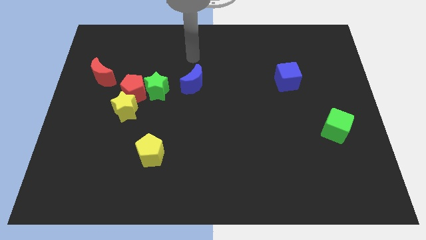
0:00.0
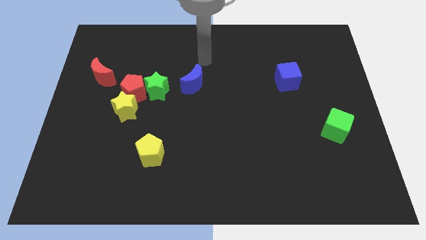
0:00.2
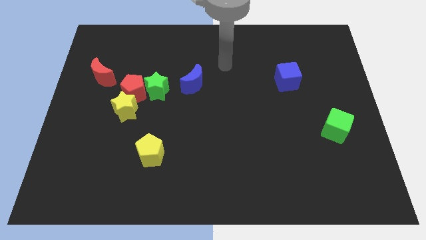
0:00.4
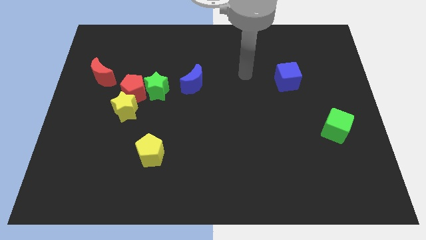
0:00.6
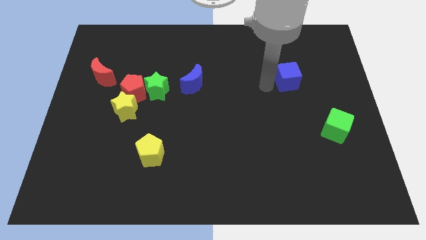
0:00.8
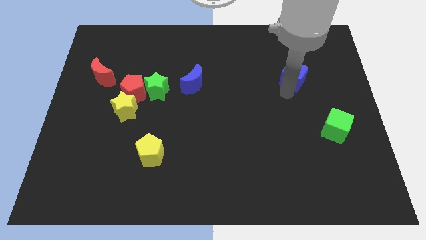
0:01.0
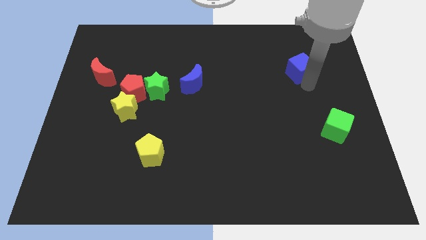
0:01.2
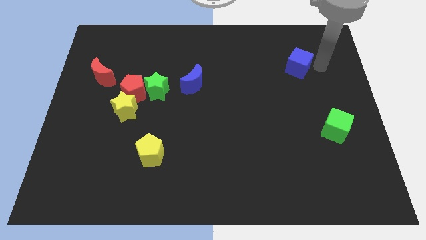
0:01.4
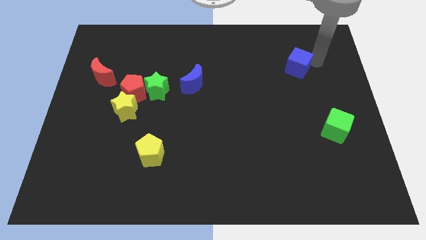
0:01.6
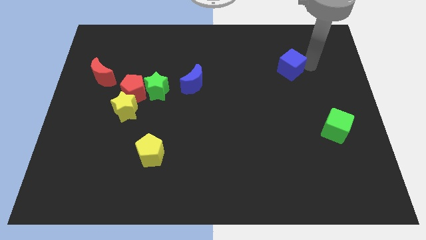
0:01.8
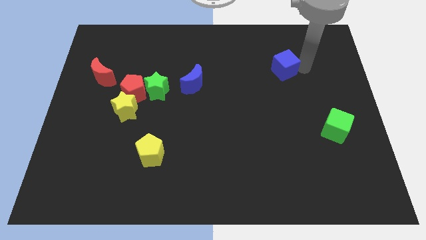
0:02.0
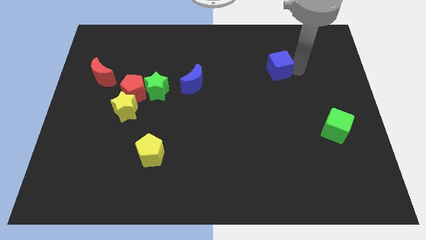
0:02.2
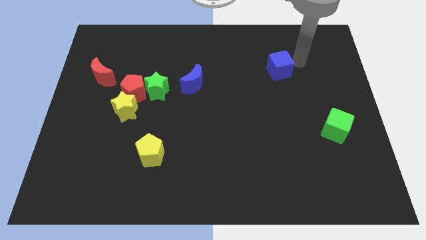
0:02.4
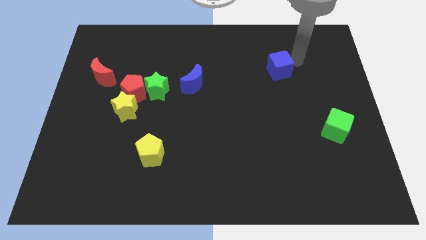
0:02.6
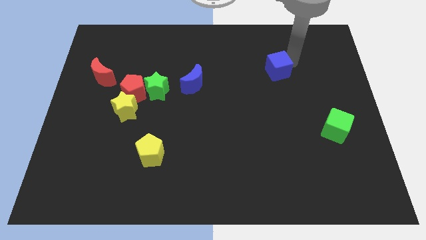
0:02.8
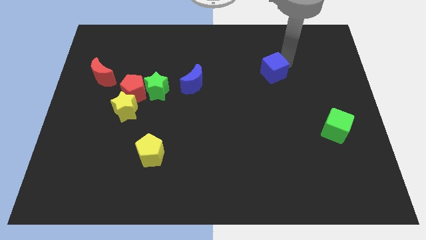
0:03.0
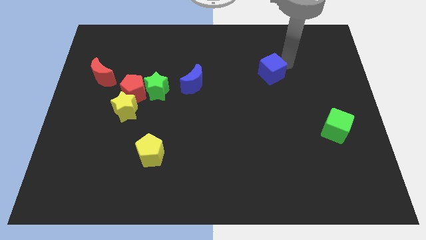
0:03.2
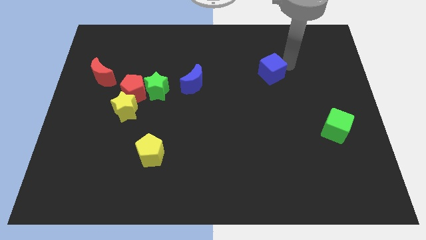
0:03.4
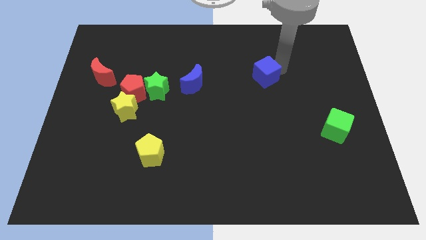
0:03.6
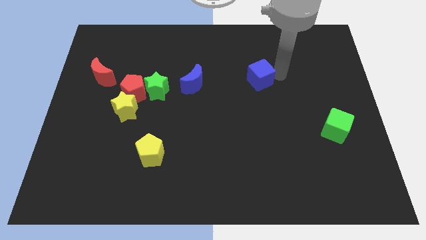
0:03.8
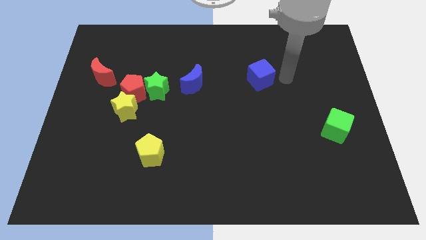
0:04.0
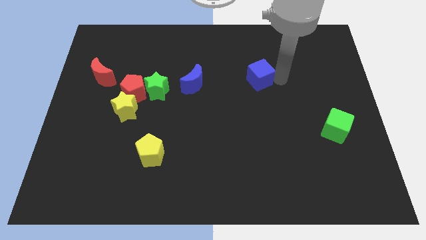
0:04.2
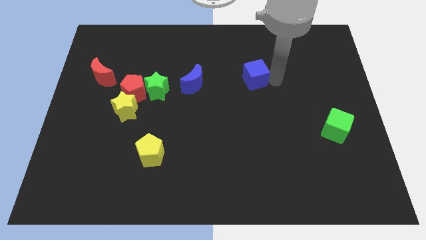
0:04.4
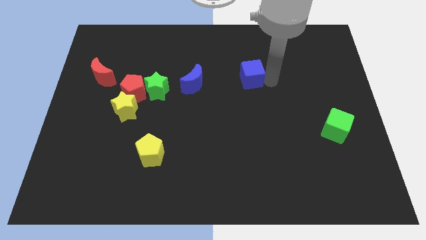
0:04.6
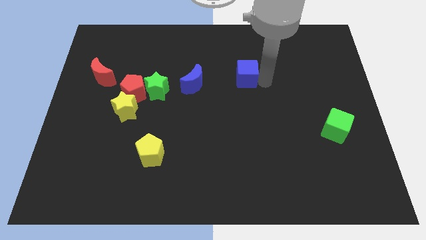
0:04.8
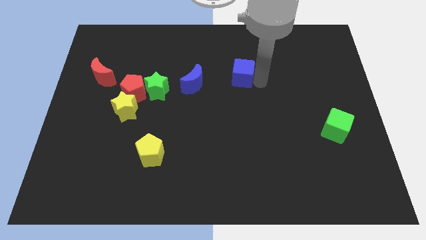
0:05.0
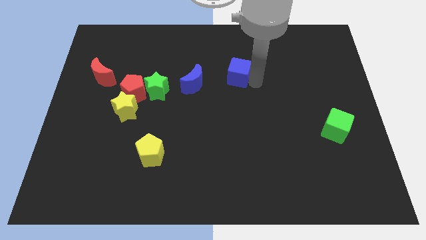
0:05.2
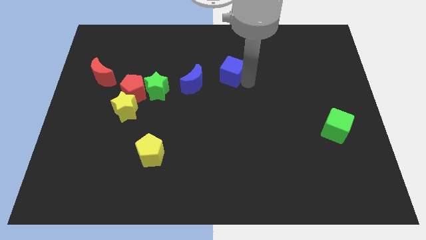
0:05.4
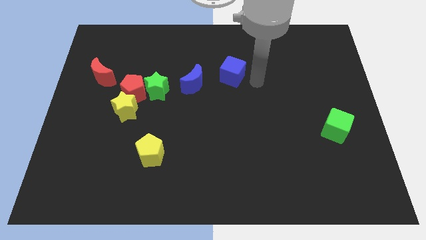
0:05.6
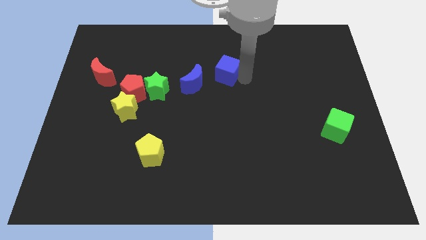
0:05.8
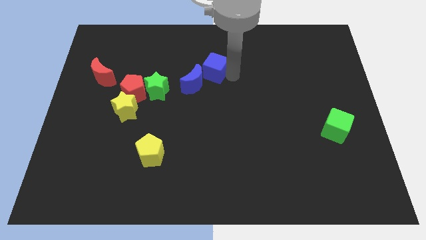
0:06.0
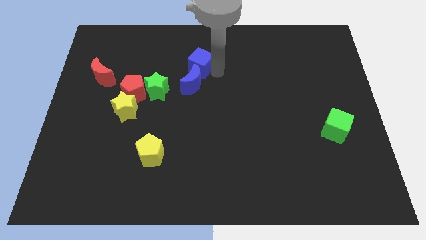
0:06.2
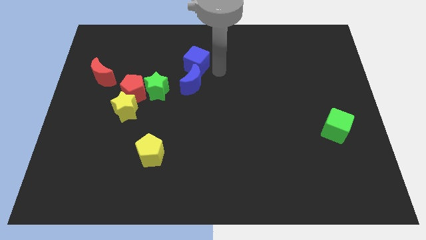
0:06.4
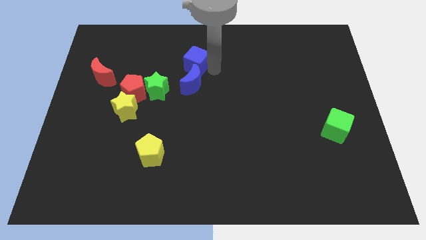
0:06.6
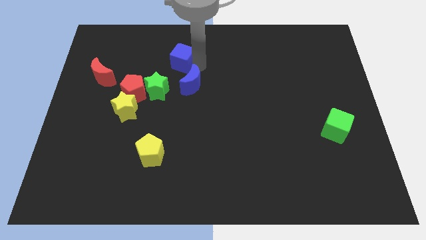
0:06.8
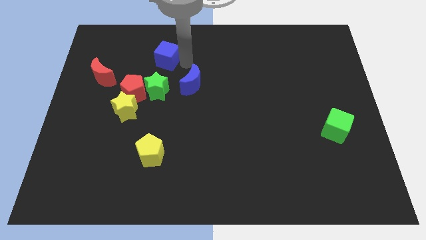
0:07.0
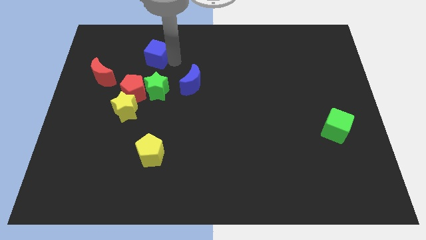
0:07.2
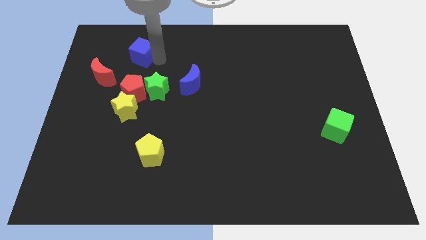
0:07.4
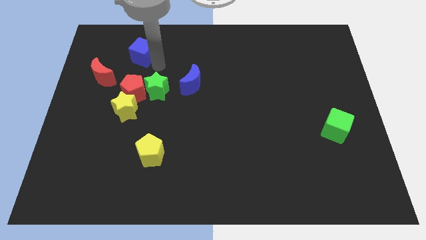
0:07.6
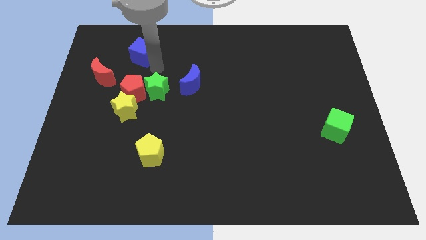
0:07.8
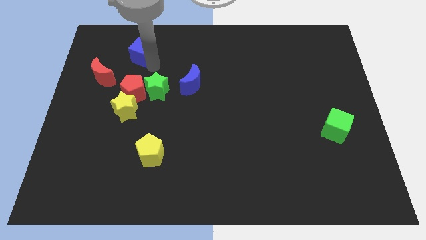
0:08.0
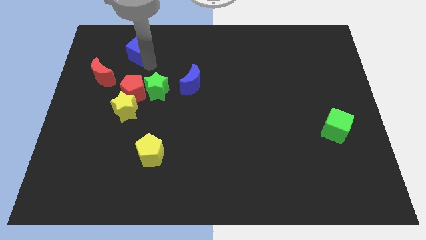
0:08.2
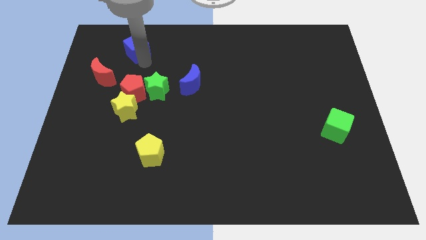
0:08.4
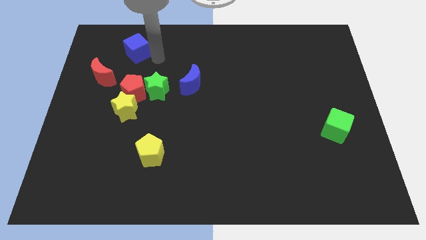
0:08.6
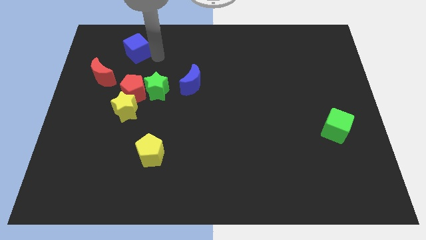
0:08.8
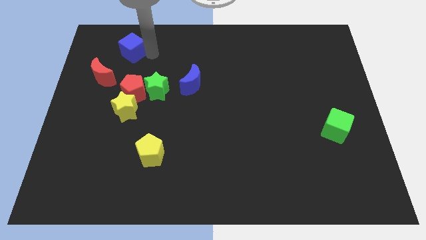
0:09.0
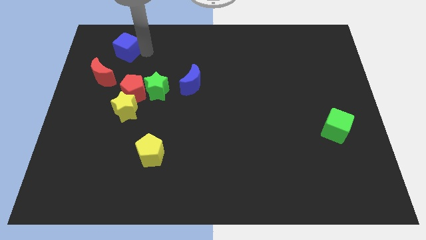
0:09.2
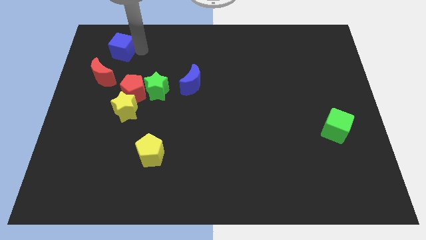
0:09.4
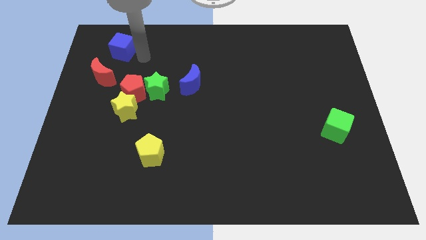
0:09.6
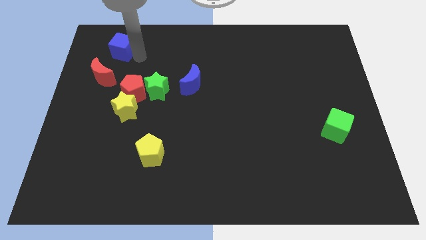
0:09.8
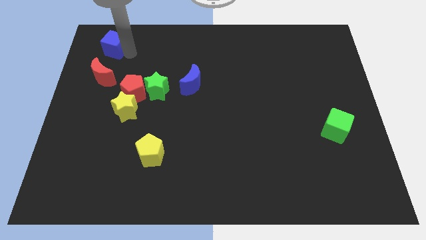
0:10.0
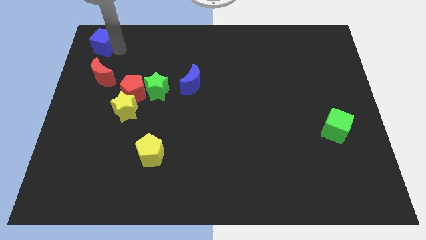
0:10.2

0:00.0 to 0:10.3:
push the blue cube to the top left

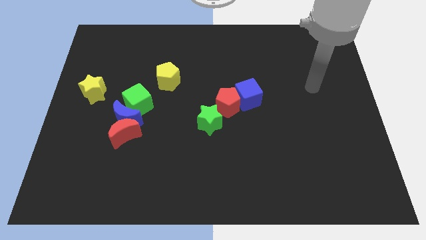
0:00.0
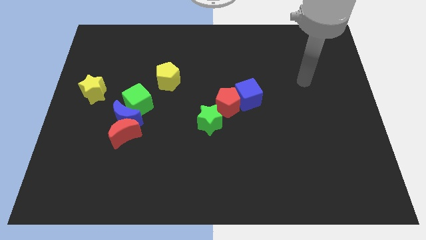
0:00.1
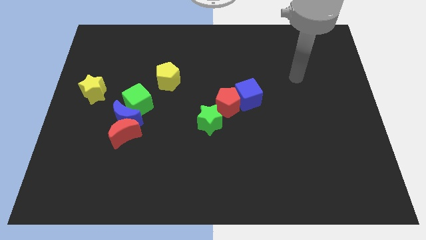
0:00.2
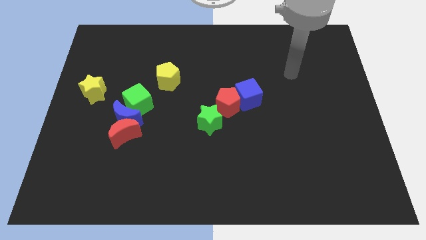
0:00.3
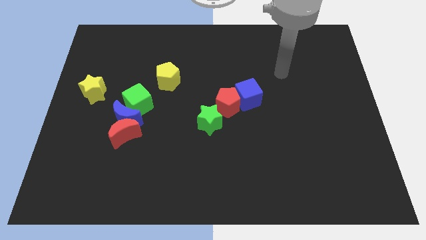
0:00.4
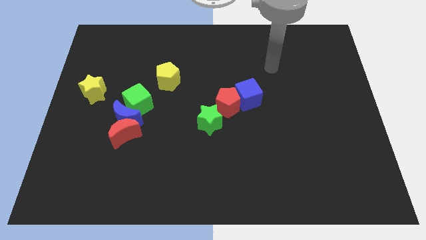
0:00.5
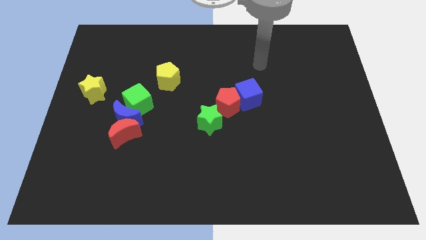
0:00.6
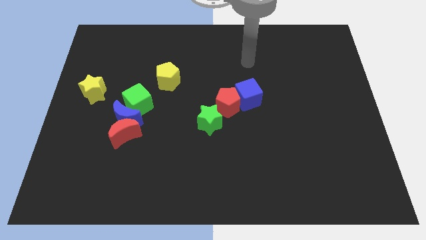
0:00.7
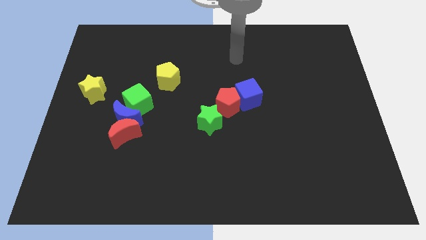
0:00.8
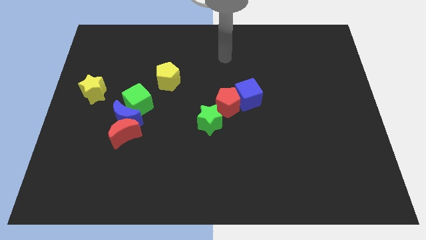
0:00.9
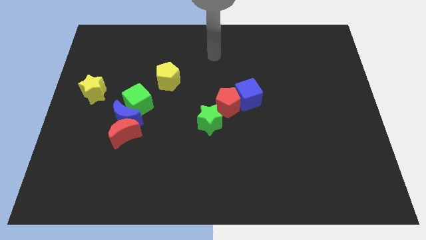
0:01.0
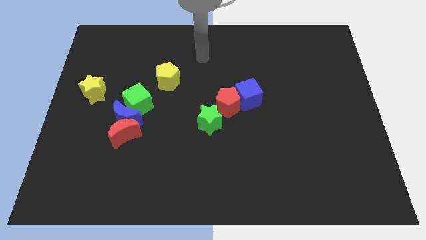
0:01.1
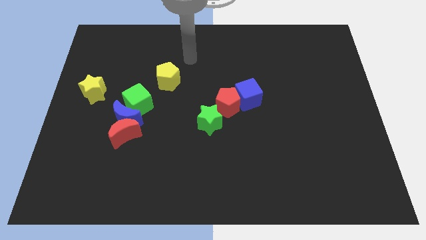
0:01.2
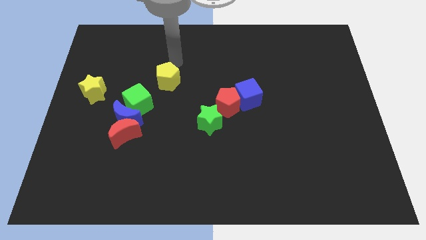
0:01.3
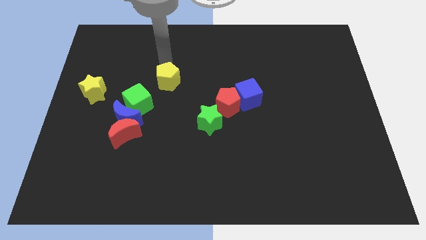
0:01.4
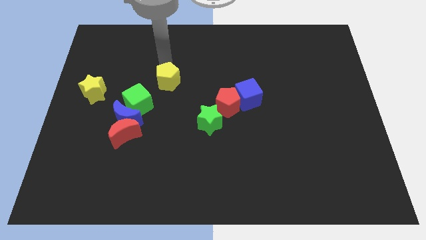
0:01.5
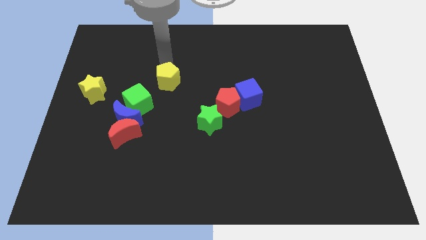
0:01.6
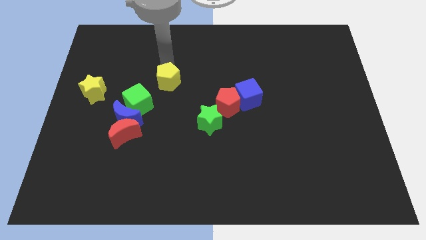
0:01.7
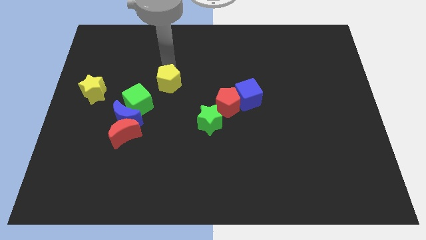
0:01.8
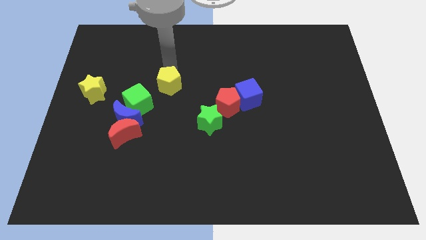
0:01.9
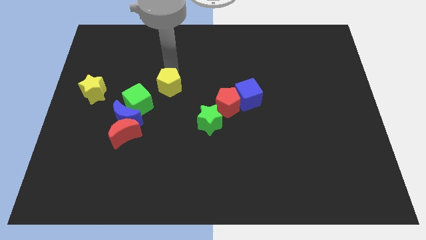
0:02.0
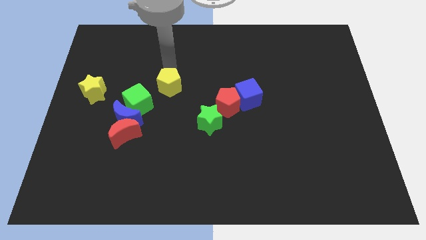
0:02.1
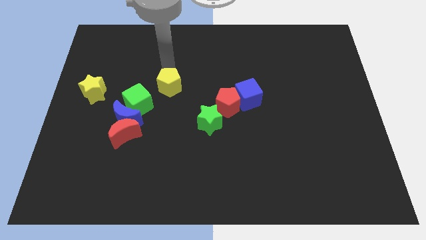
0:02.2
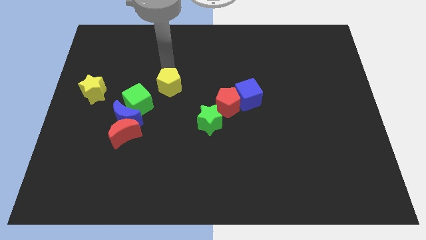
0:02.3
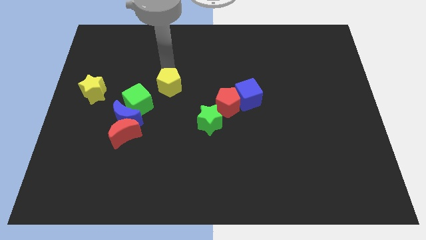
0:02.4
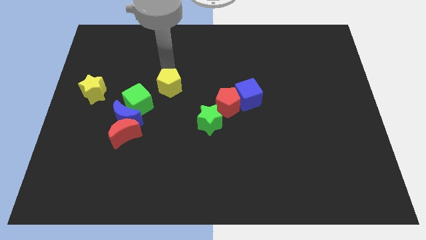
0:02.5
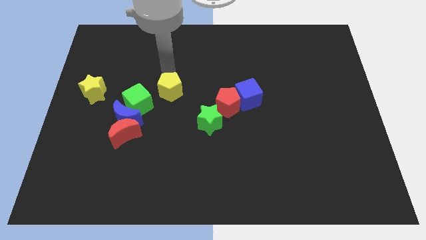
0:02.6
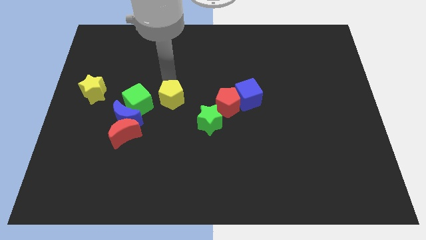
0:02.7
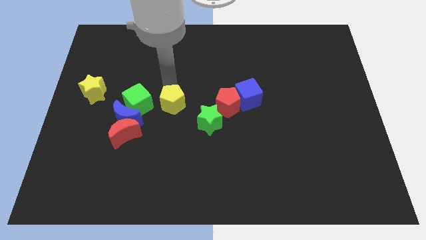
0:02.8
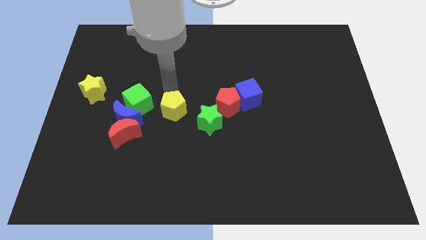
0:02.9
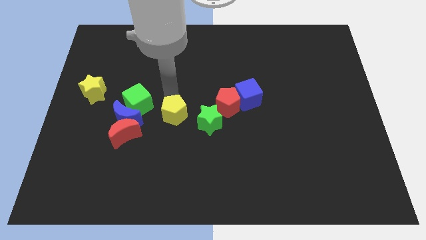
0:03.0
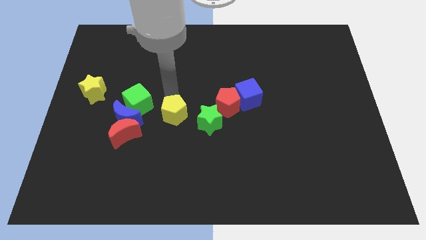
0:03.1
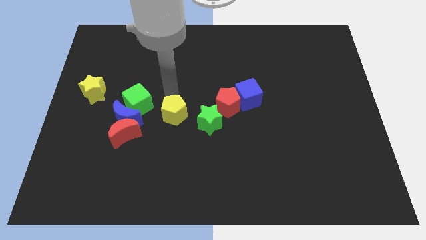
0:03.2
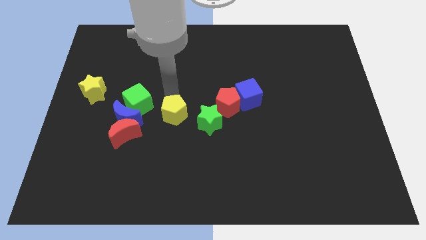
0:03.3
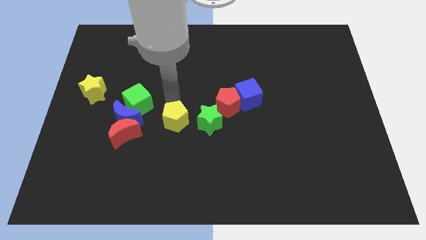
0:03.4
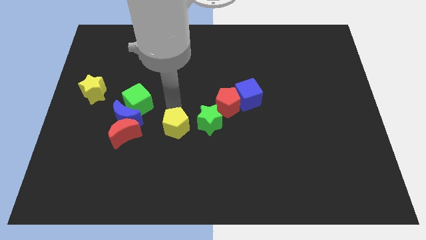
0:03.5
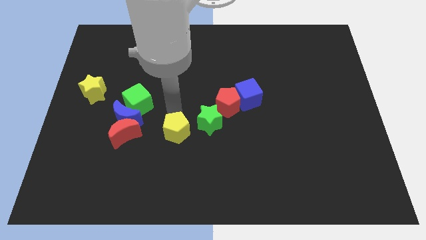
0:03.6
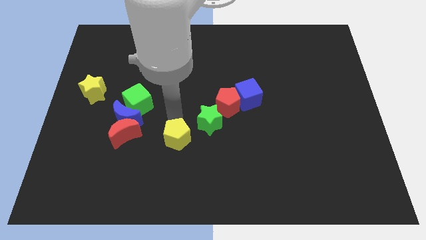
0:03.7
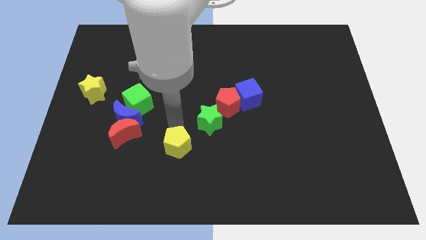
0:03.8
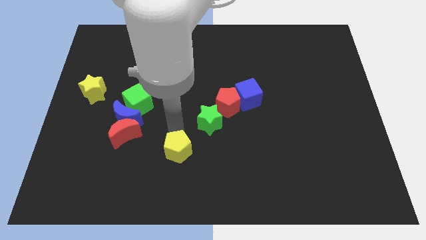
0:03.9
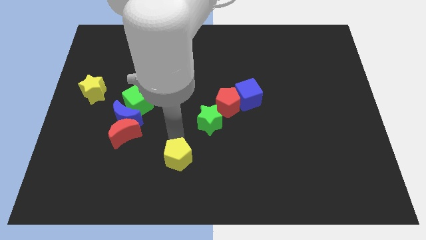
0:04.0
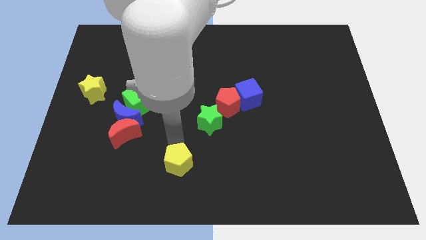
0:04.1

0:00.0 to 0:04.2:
push the yellow pentagon to the bottom
